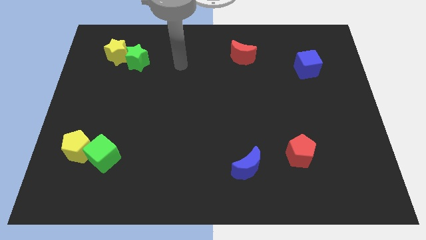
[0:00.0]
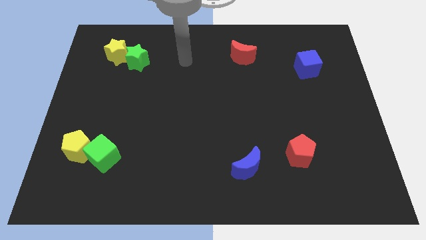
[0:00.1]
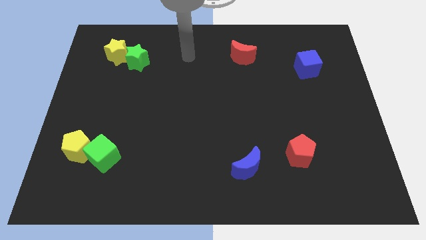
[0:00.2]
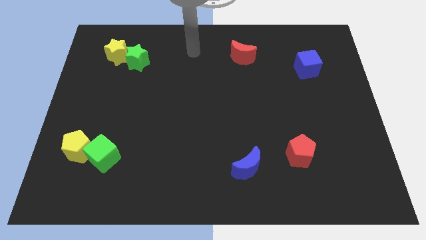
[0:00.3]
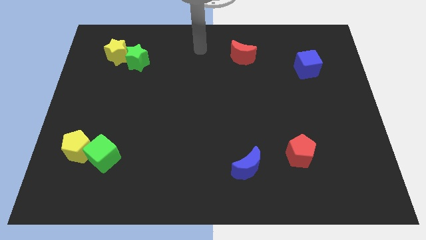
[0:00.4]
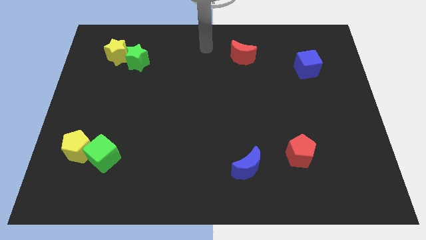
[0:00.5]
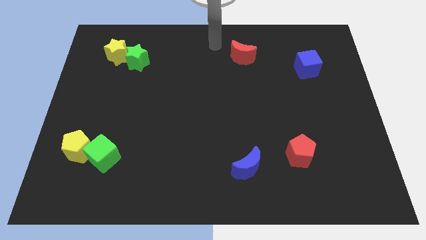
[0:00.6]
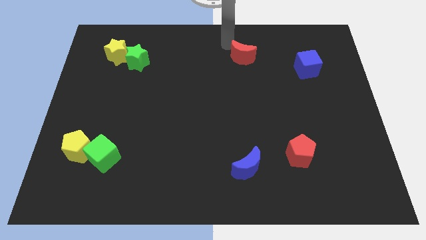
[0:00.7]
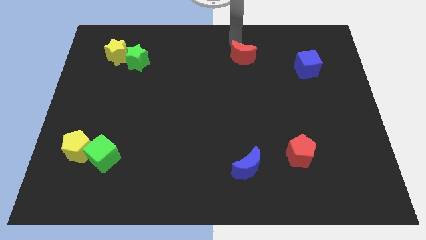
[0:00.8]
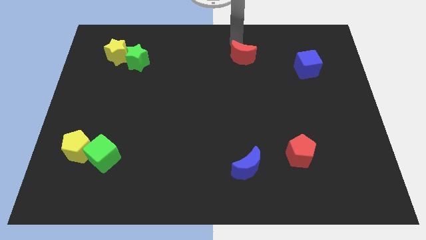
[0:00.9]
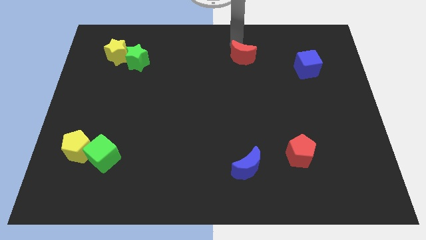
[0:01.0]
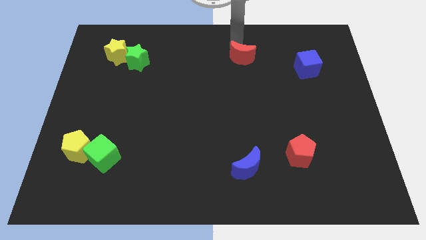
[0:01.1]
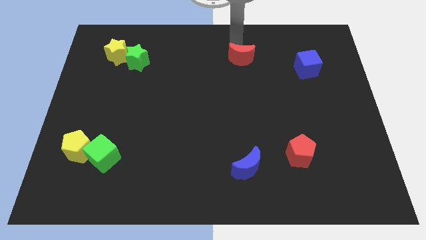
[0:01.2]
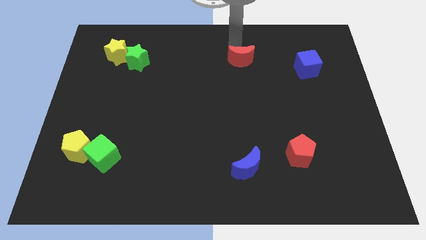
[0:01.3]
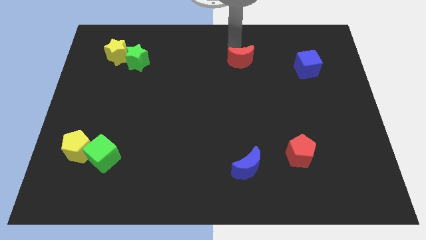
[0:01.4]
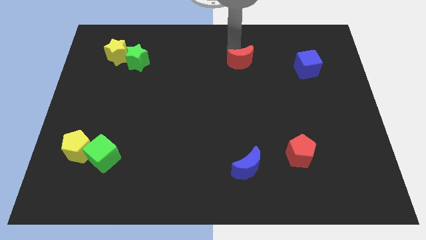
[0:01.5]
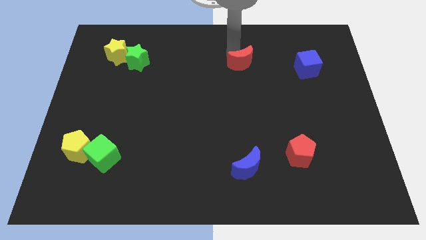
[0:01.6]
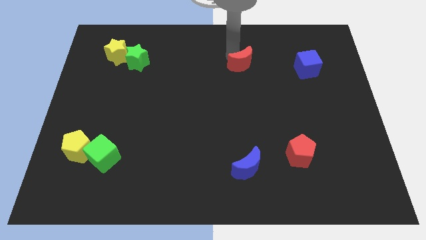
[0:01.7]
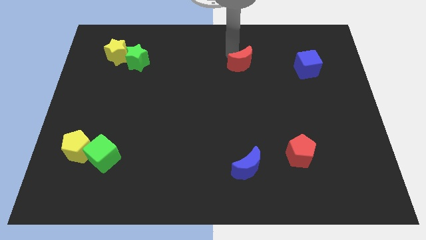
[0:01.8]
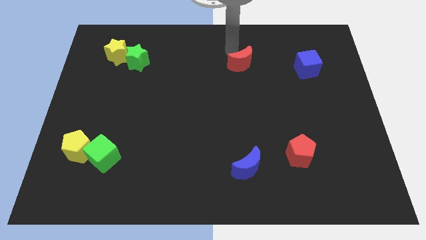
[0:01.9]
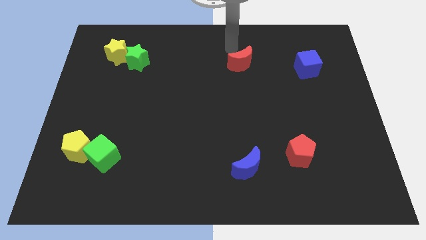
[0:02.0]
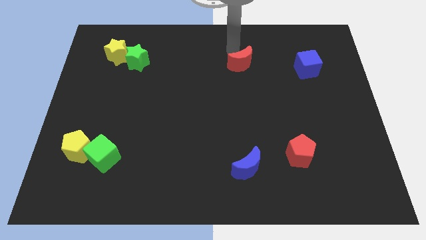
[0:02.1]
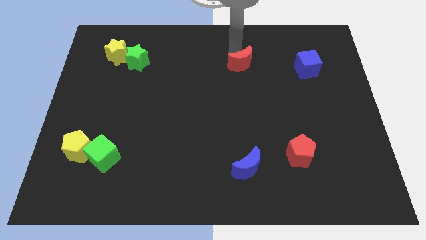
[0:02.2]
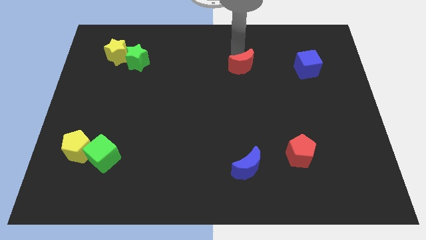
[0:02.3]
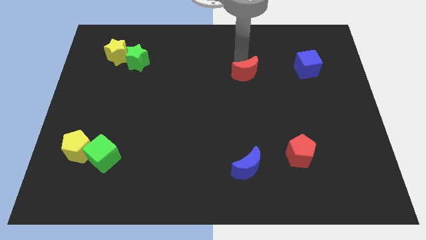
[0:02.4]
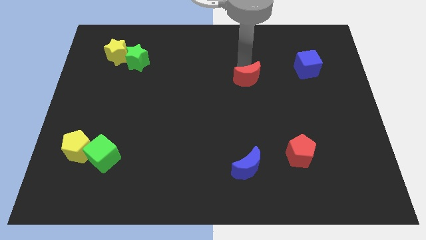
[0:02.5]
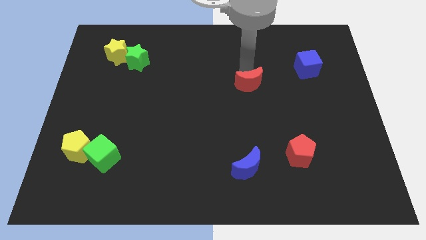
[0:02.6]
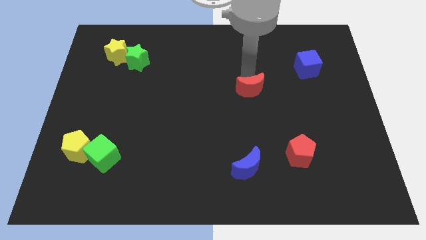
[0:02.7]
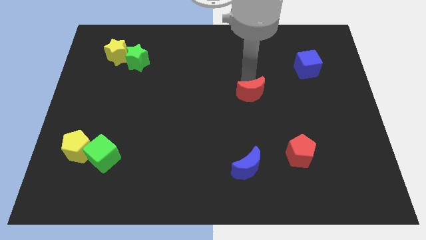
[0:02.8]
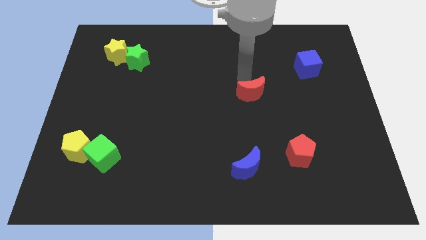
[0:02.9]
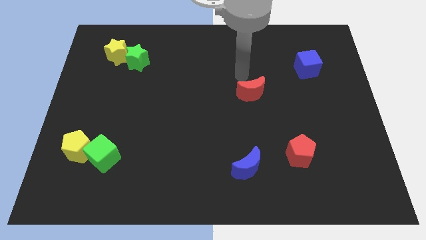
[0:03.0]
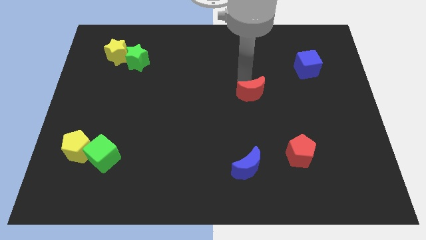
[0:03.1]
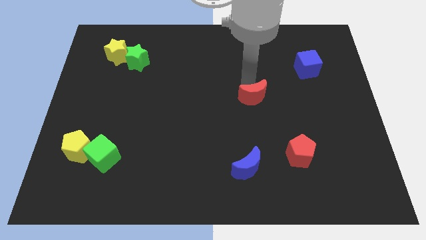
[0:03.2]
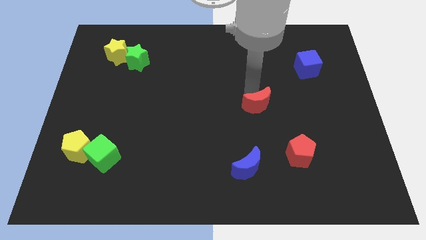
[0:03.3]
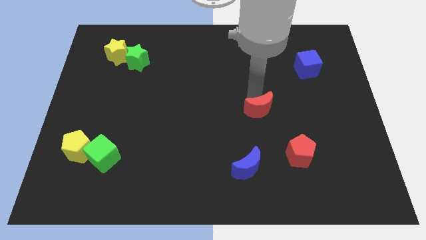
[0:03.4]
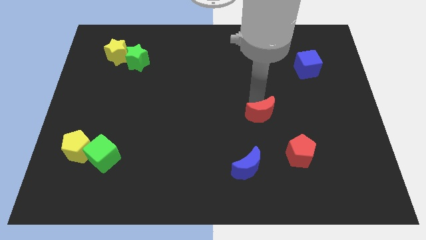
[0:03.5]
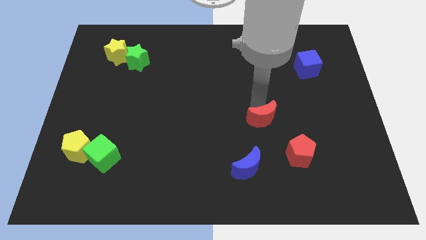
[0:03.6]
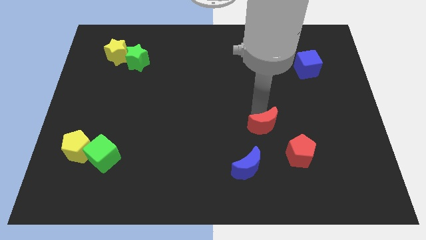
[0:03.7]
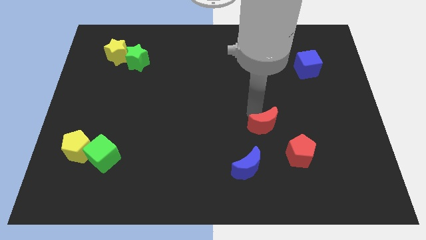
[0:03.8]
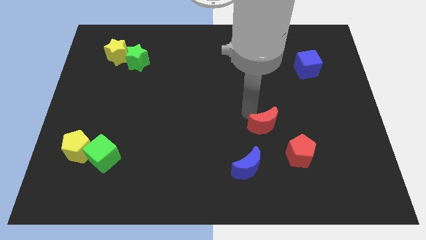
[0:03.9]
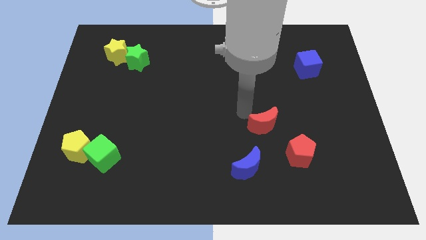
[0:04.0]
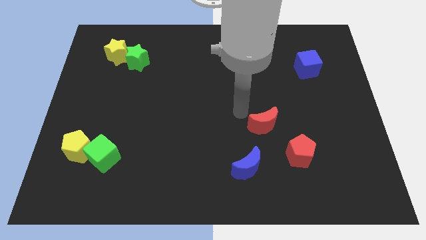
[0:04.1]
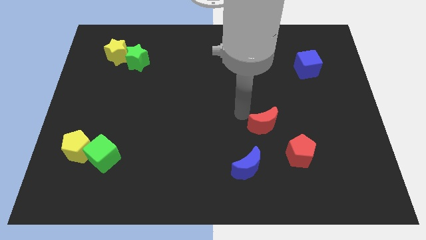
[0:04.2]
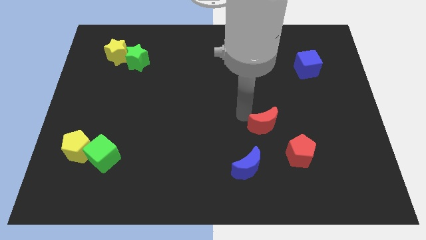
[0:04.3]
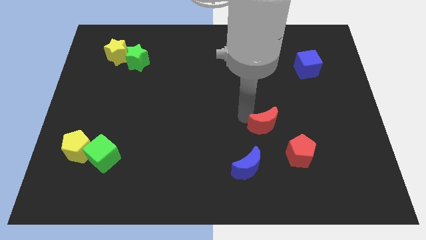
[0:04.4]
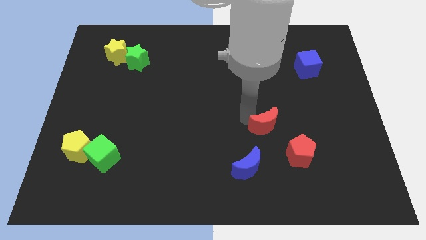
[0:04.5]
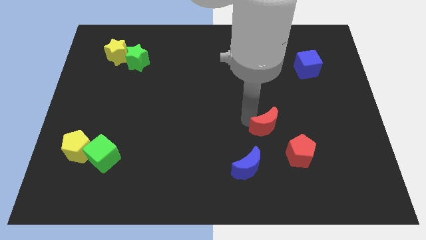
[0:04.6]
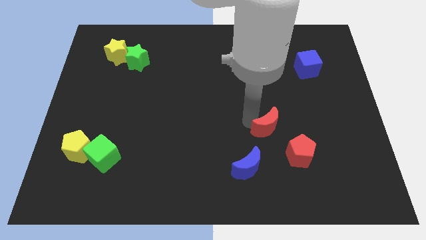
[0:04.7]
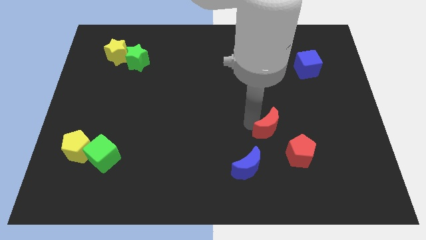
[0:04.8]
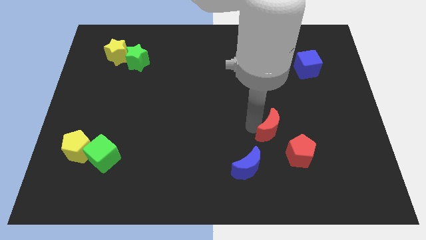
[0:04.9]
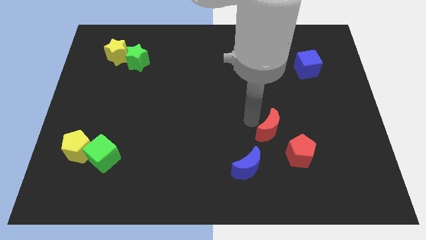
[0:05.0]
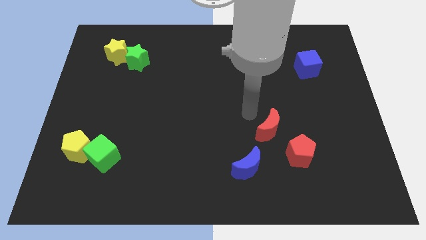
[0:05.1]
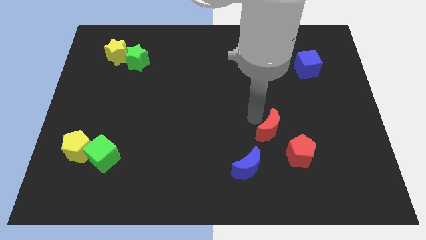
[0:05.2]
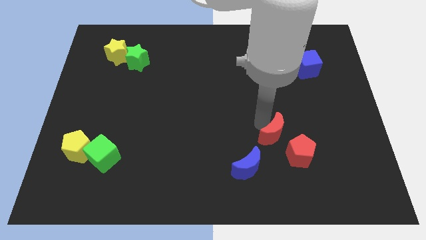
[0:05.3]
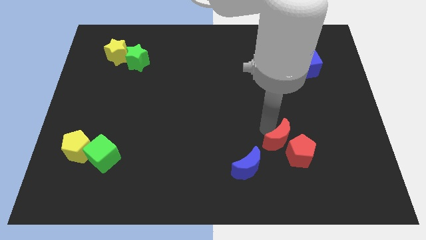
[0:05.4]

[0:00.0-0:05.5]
put the red moon next to the red pentagon

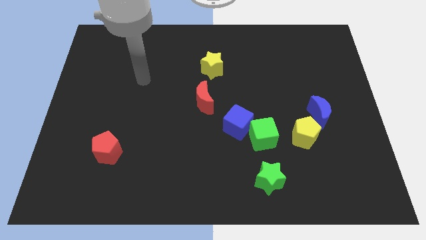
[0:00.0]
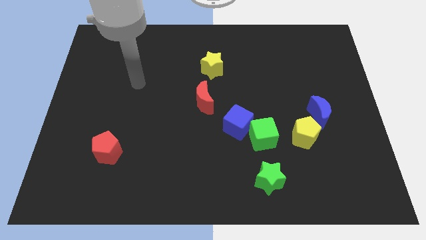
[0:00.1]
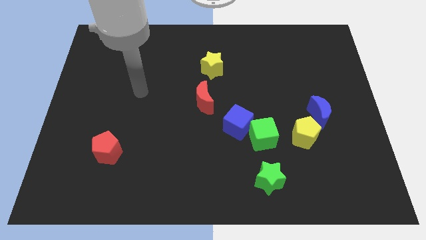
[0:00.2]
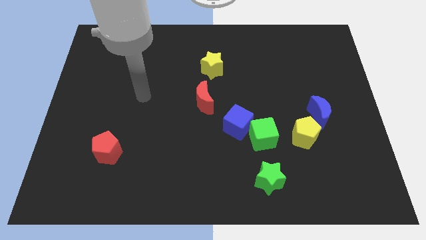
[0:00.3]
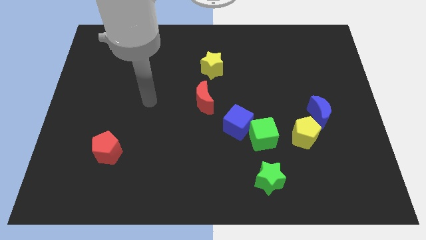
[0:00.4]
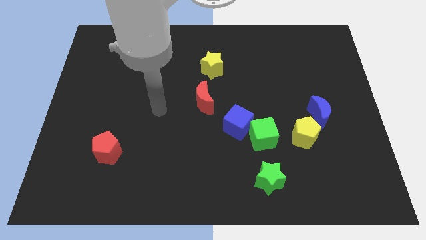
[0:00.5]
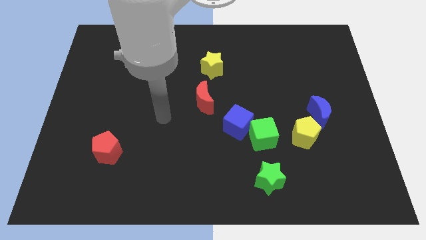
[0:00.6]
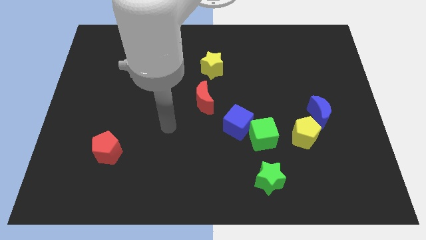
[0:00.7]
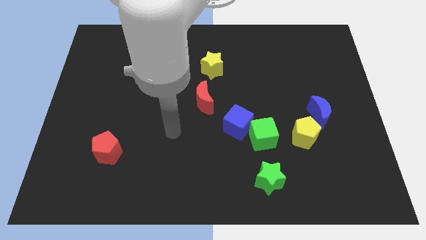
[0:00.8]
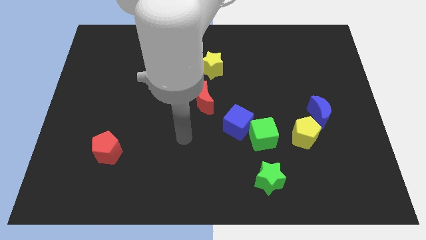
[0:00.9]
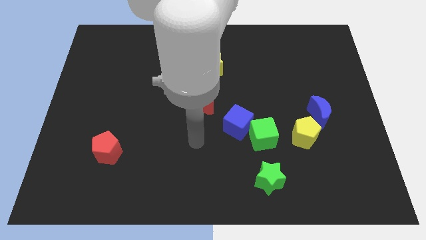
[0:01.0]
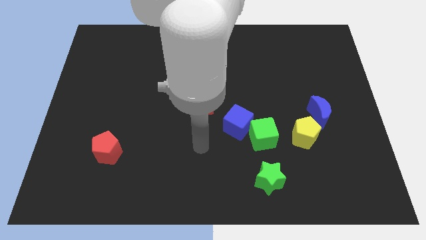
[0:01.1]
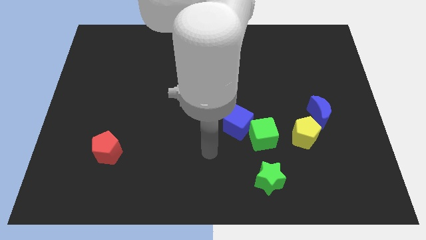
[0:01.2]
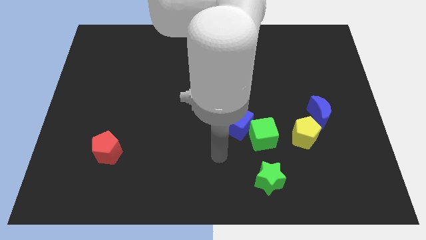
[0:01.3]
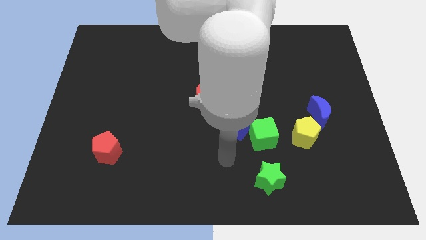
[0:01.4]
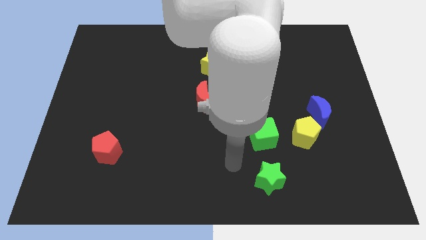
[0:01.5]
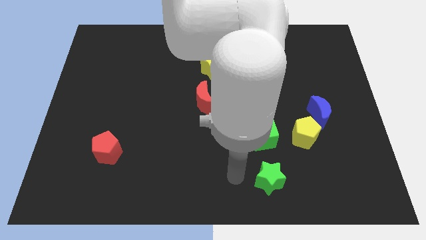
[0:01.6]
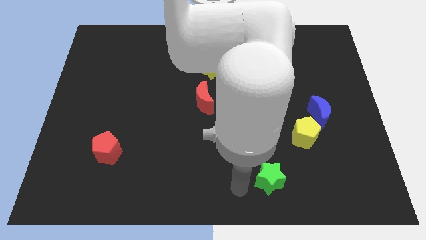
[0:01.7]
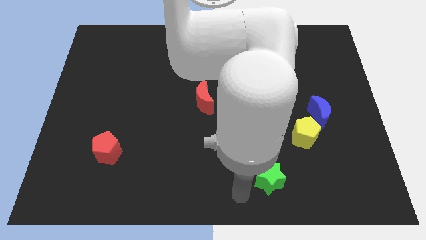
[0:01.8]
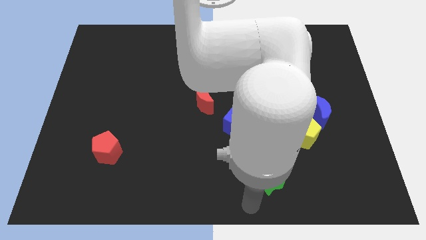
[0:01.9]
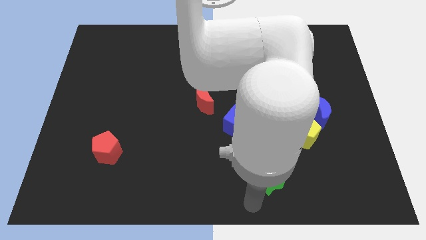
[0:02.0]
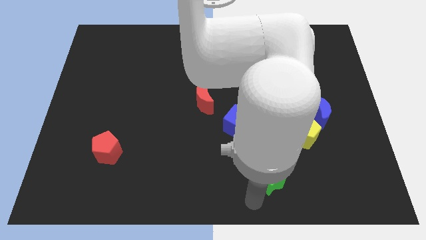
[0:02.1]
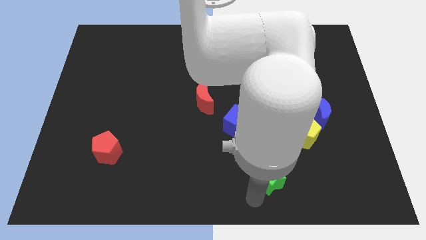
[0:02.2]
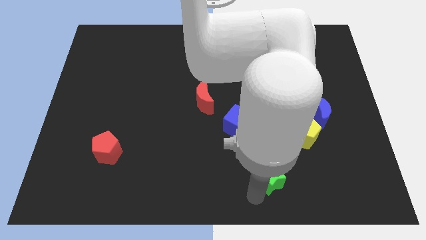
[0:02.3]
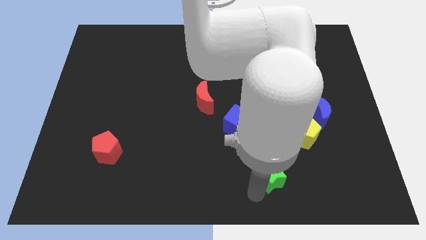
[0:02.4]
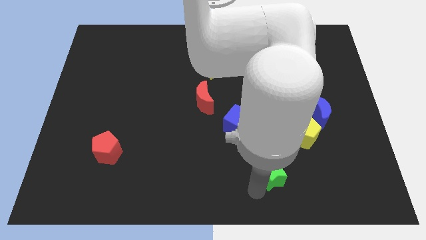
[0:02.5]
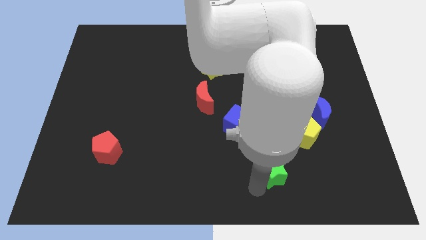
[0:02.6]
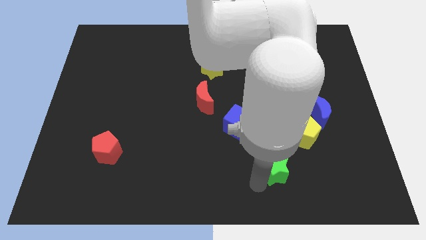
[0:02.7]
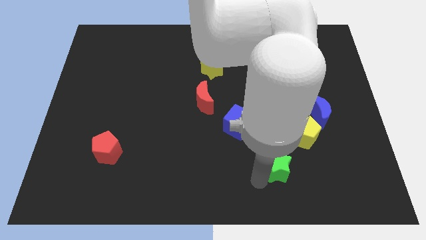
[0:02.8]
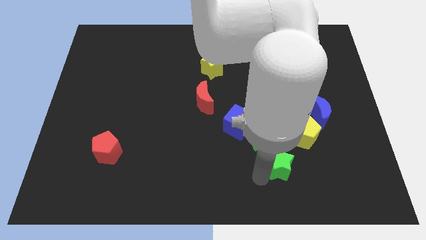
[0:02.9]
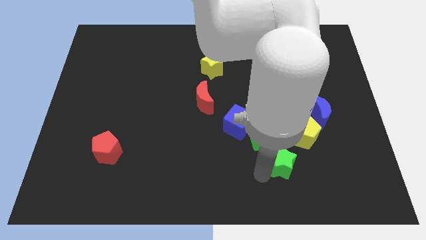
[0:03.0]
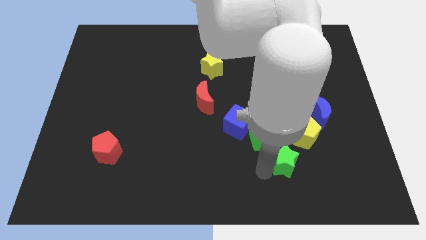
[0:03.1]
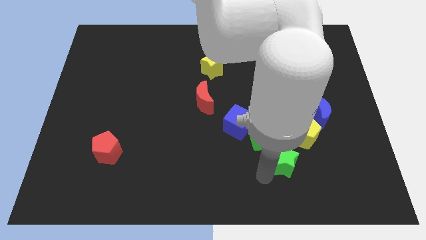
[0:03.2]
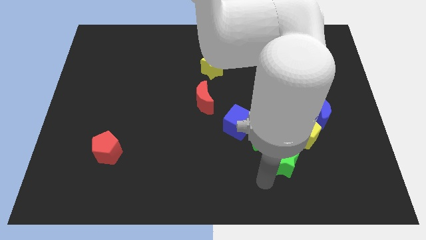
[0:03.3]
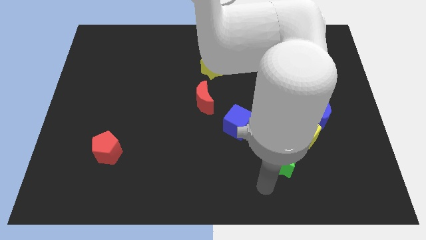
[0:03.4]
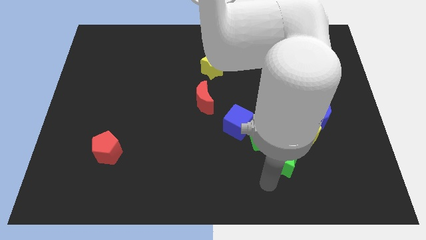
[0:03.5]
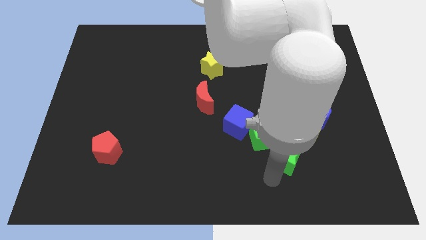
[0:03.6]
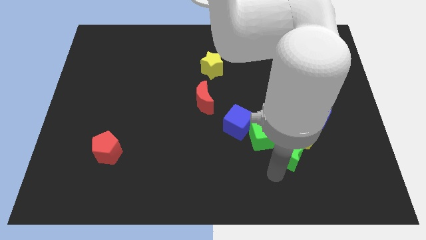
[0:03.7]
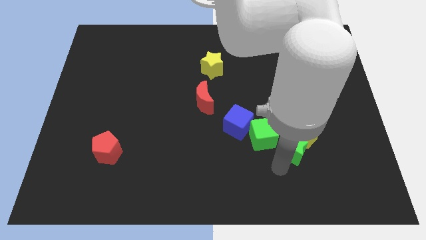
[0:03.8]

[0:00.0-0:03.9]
put the green star towards the yellow pentagon
